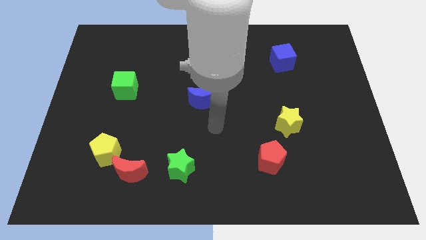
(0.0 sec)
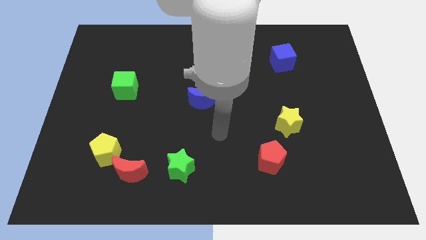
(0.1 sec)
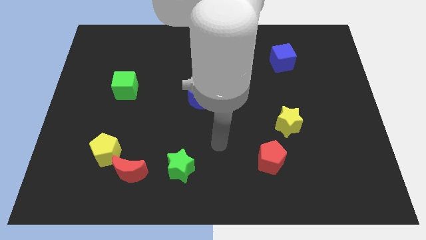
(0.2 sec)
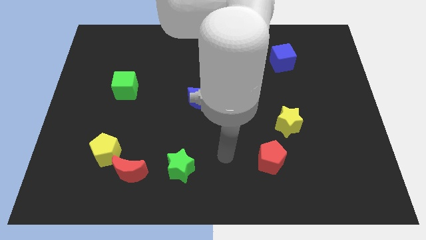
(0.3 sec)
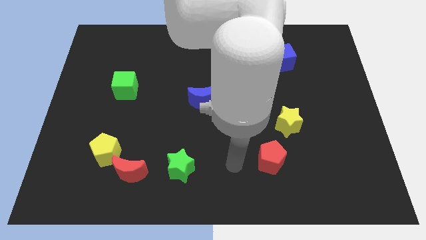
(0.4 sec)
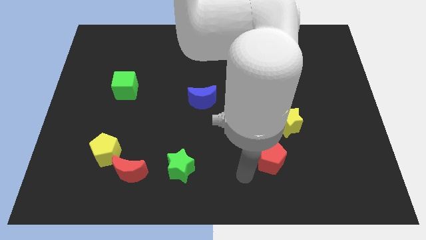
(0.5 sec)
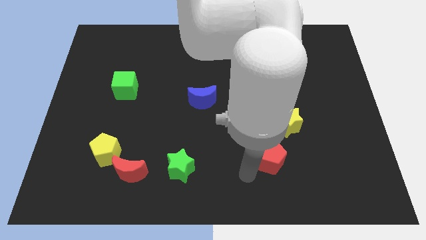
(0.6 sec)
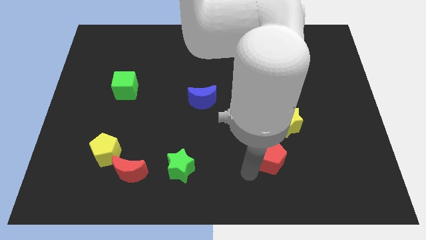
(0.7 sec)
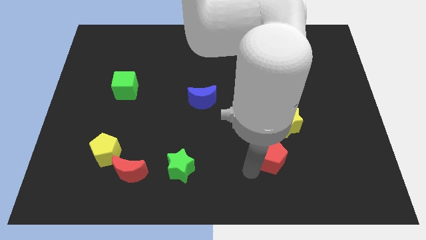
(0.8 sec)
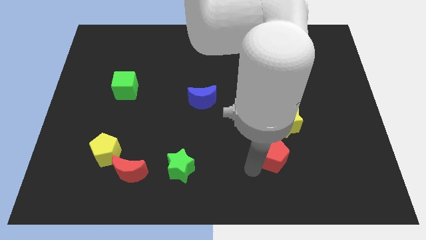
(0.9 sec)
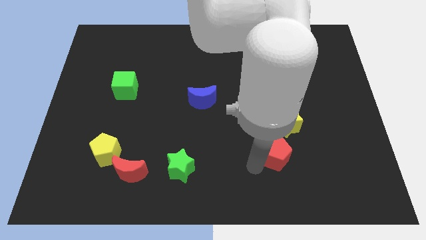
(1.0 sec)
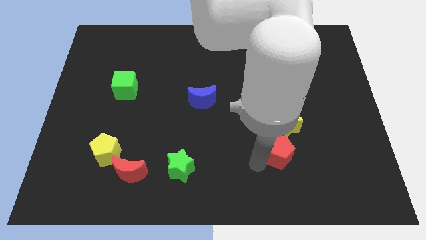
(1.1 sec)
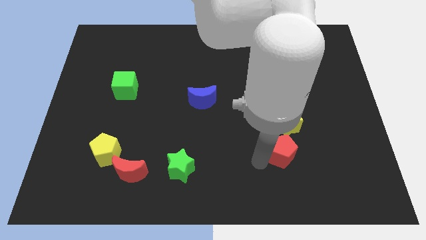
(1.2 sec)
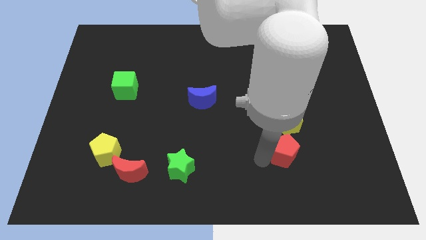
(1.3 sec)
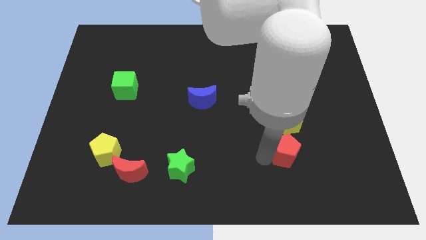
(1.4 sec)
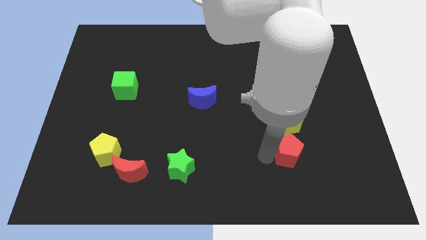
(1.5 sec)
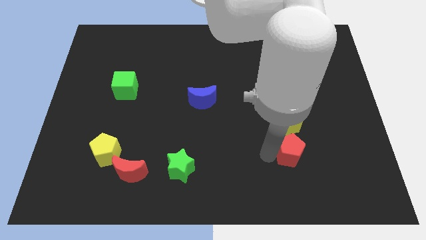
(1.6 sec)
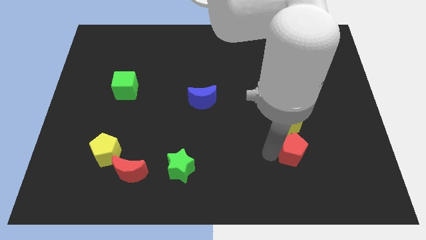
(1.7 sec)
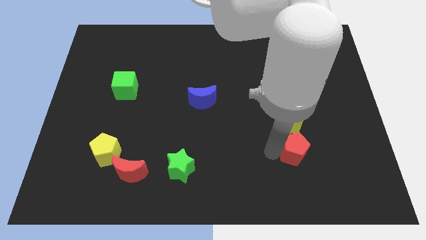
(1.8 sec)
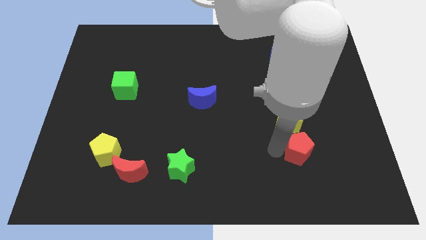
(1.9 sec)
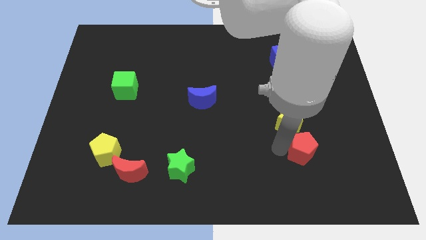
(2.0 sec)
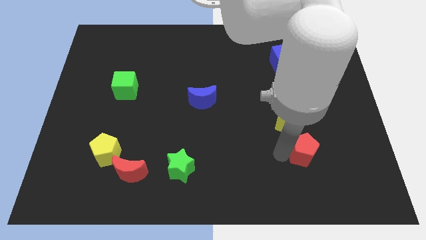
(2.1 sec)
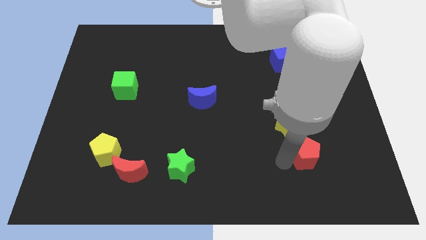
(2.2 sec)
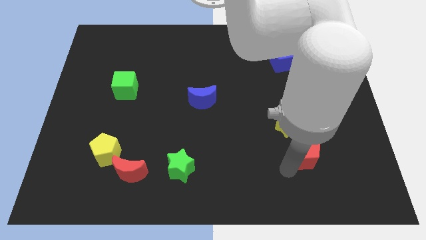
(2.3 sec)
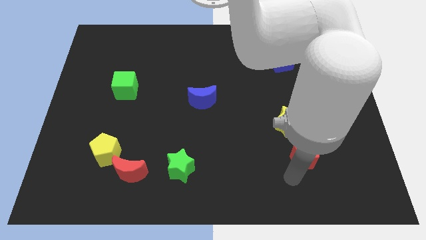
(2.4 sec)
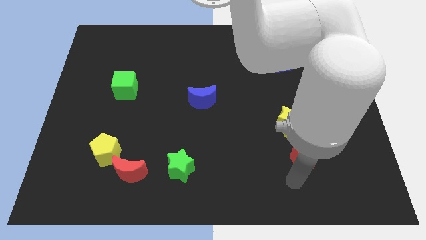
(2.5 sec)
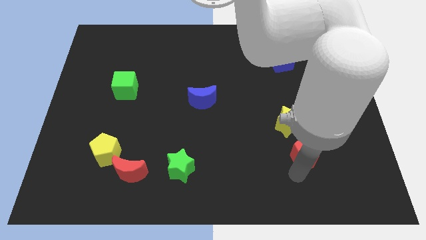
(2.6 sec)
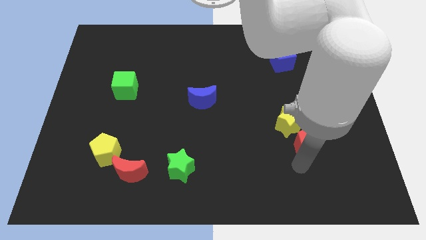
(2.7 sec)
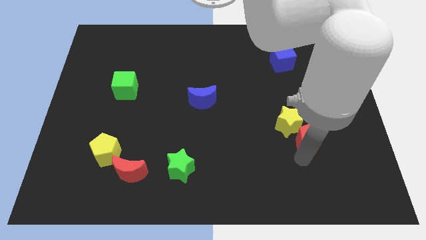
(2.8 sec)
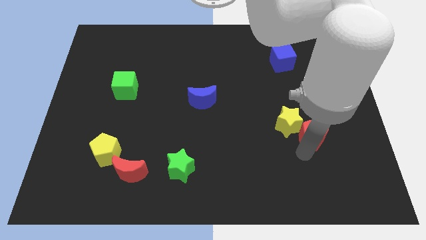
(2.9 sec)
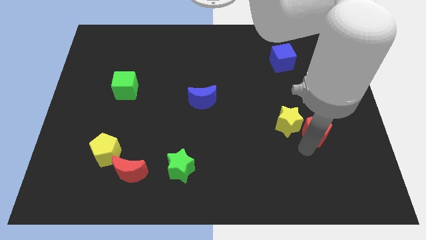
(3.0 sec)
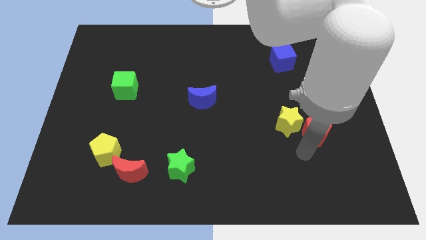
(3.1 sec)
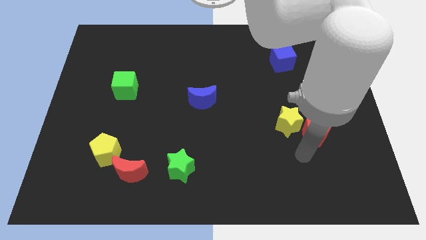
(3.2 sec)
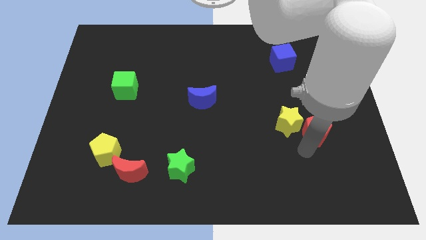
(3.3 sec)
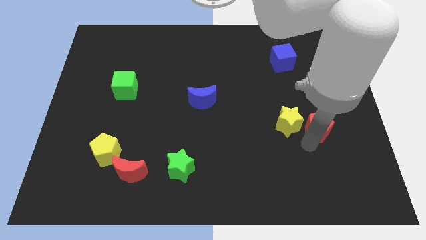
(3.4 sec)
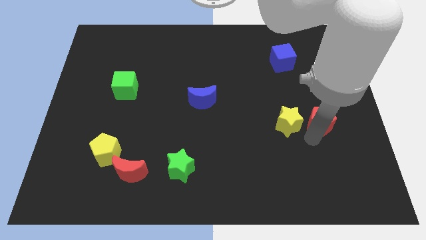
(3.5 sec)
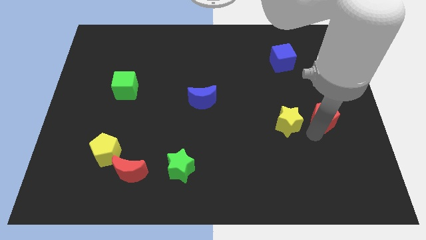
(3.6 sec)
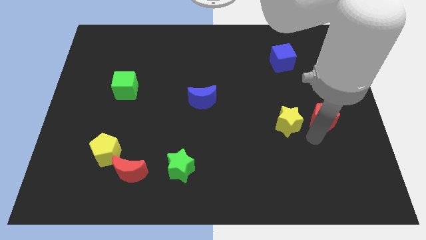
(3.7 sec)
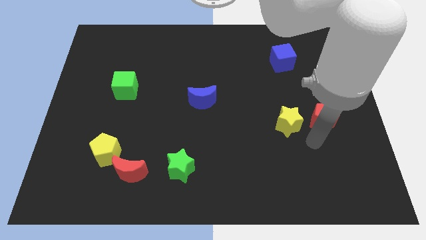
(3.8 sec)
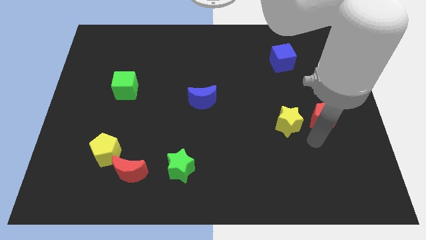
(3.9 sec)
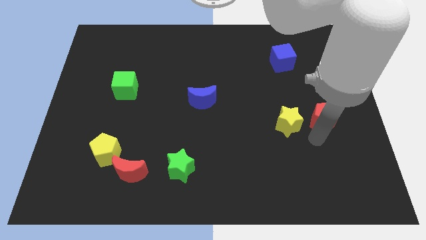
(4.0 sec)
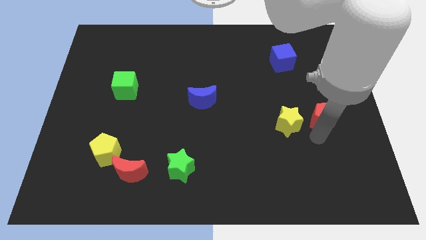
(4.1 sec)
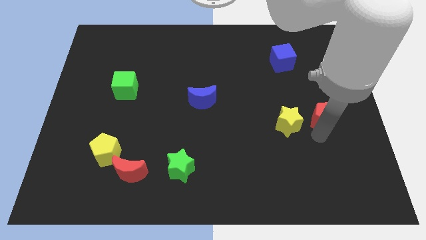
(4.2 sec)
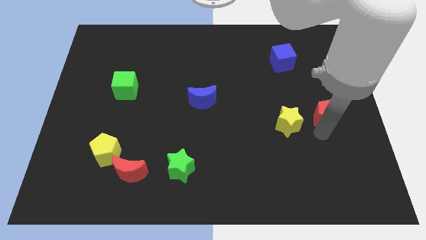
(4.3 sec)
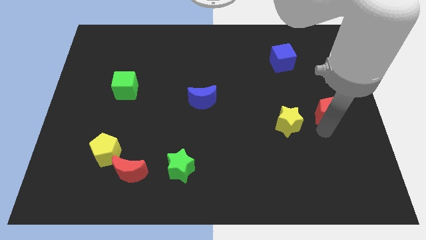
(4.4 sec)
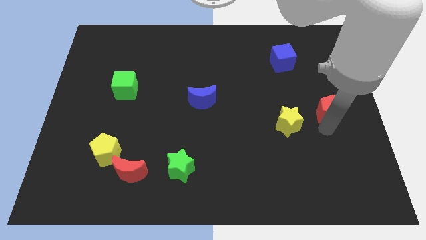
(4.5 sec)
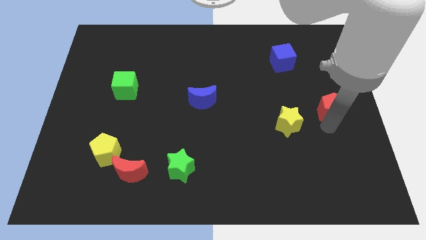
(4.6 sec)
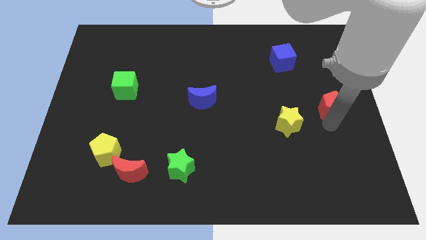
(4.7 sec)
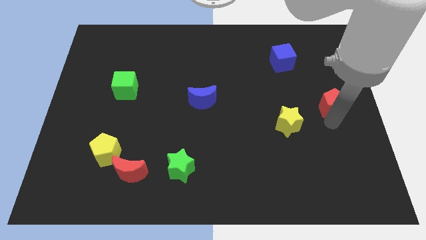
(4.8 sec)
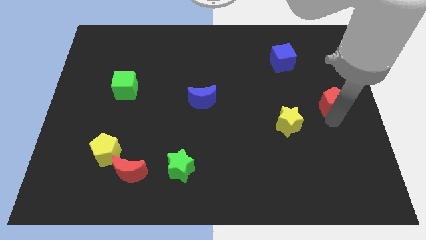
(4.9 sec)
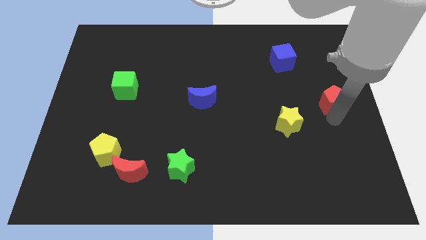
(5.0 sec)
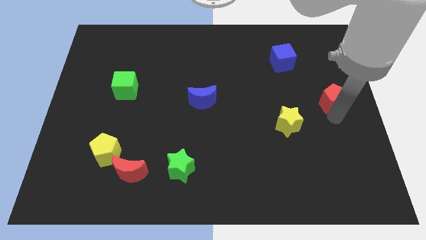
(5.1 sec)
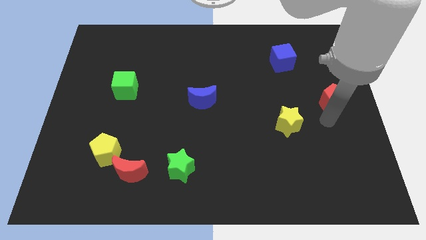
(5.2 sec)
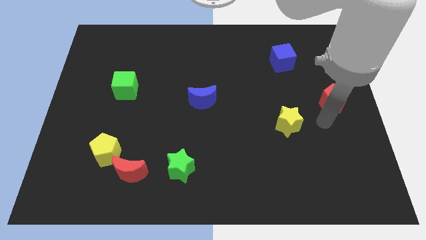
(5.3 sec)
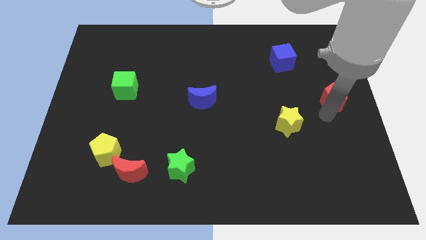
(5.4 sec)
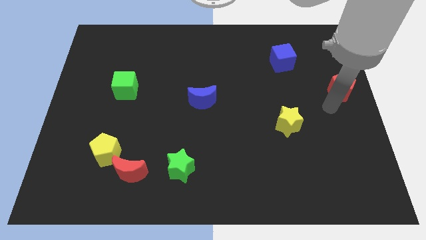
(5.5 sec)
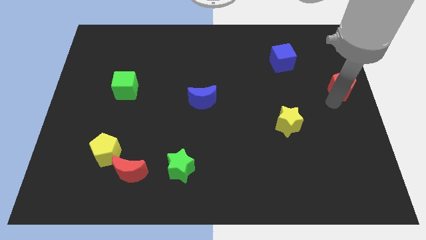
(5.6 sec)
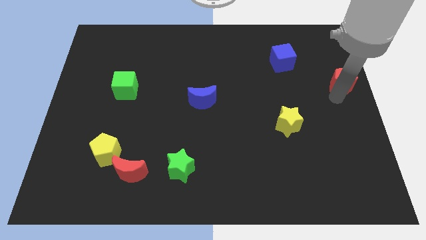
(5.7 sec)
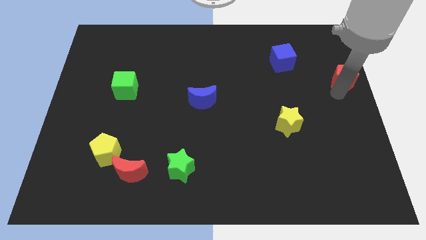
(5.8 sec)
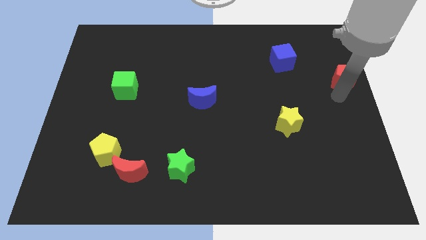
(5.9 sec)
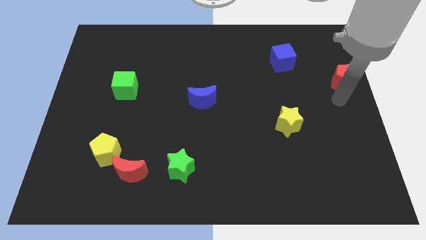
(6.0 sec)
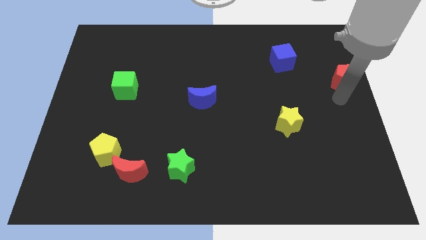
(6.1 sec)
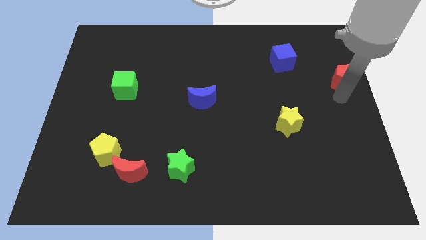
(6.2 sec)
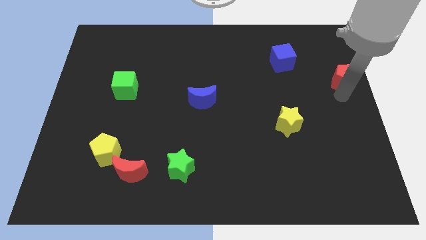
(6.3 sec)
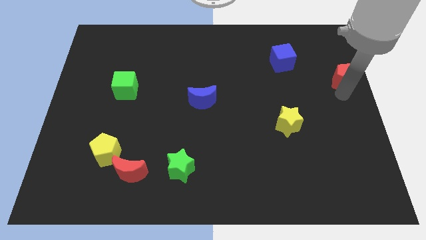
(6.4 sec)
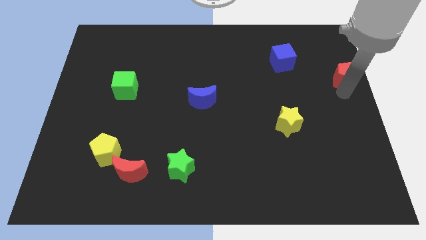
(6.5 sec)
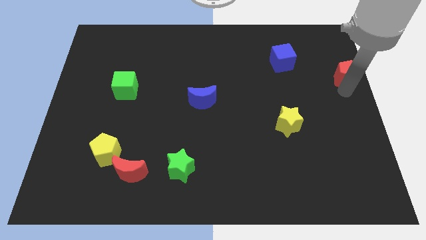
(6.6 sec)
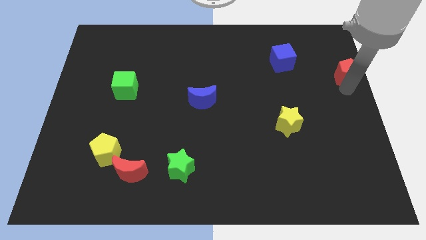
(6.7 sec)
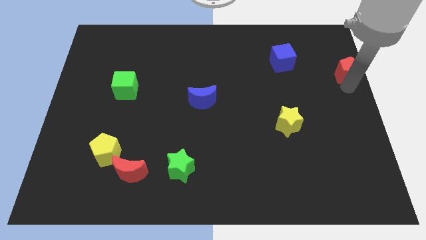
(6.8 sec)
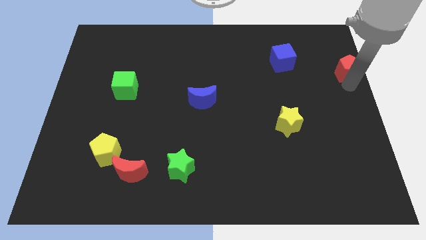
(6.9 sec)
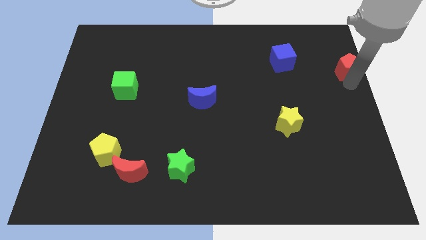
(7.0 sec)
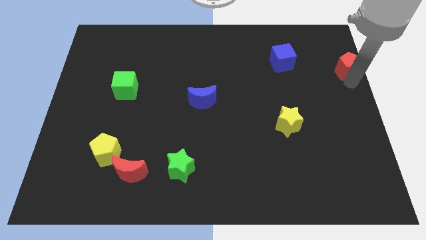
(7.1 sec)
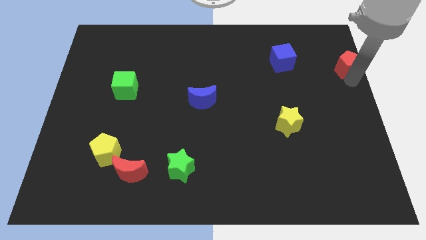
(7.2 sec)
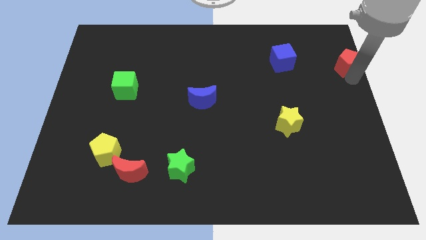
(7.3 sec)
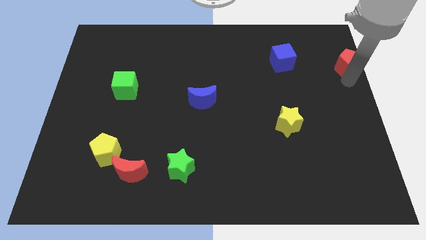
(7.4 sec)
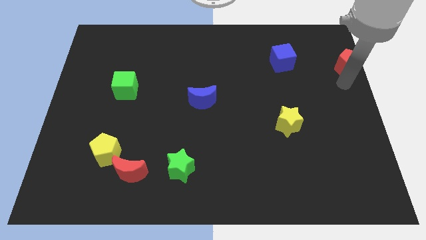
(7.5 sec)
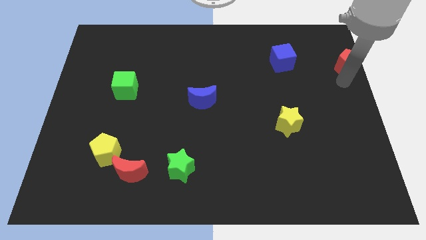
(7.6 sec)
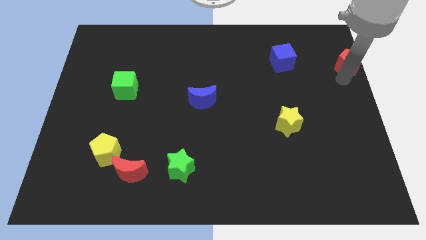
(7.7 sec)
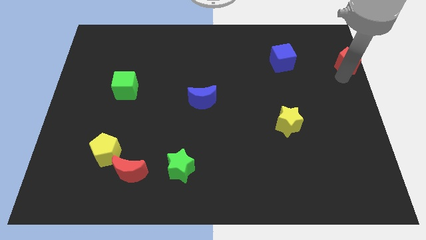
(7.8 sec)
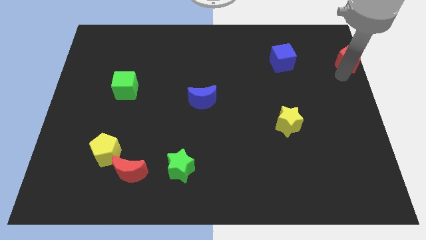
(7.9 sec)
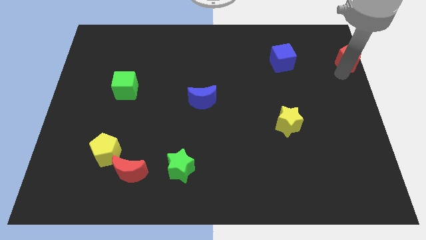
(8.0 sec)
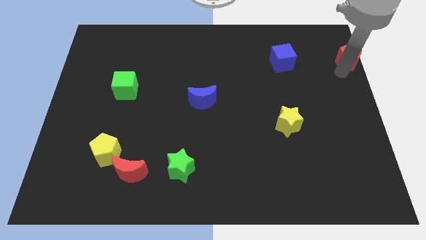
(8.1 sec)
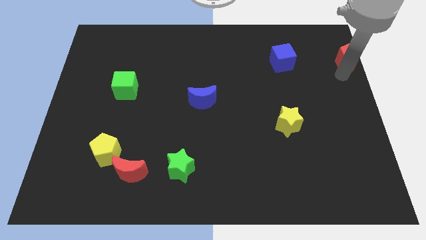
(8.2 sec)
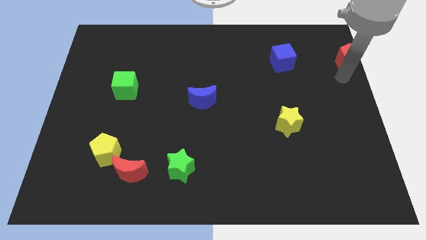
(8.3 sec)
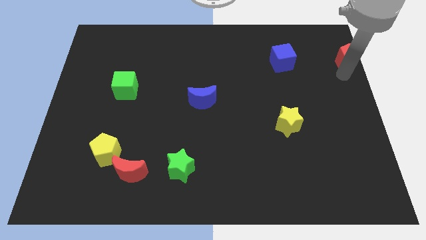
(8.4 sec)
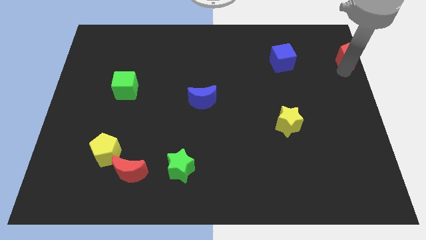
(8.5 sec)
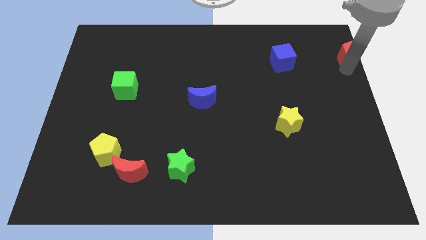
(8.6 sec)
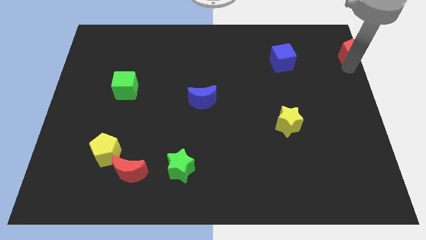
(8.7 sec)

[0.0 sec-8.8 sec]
put the red pentagon to the top right
